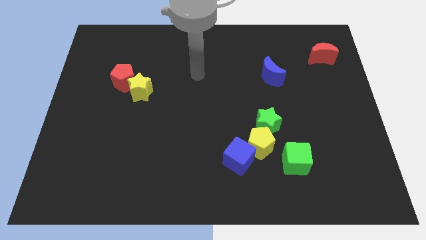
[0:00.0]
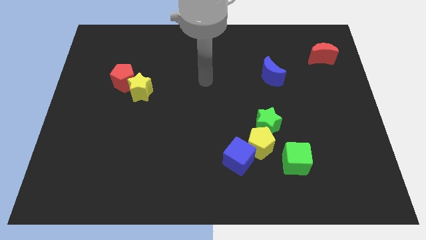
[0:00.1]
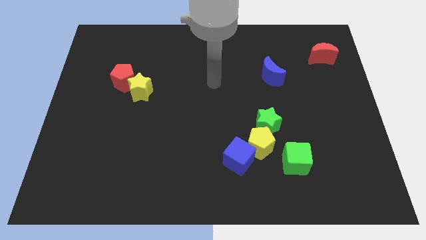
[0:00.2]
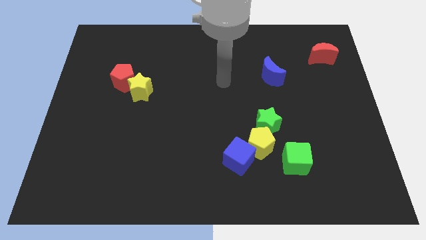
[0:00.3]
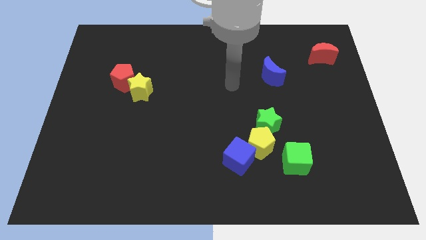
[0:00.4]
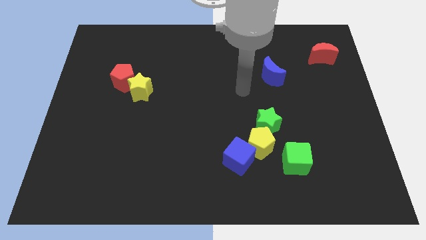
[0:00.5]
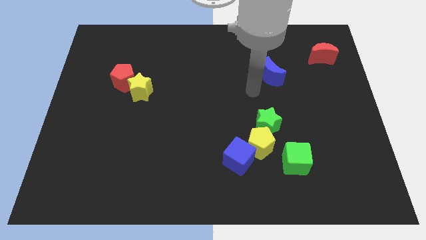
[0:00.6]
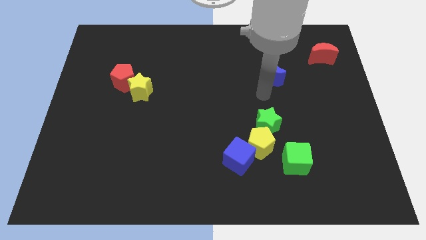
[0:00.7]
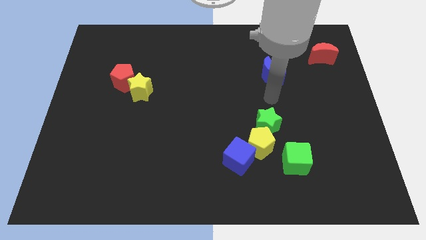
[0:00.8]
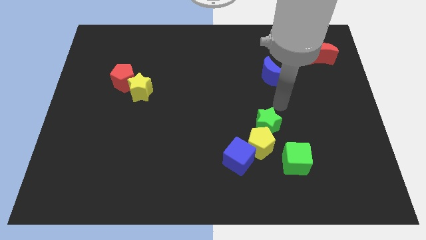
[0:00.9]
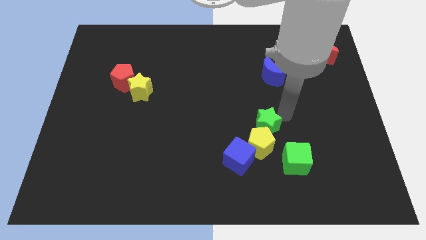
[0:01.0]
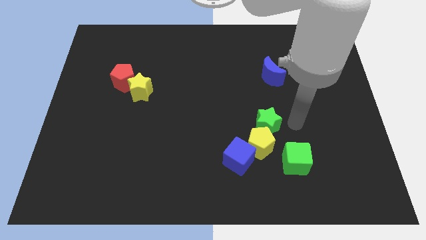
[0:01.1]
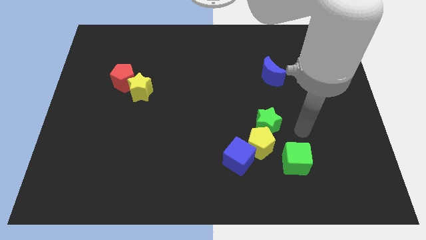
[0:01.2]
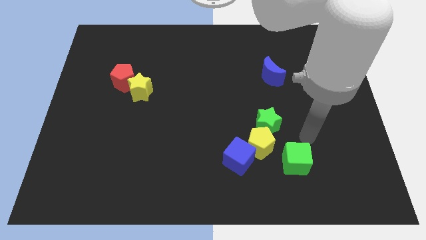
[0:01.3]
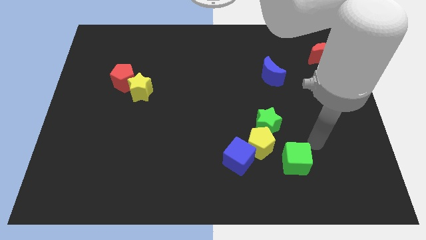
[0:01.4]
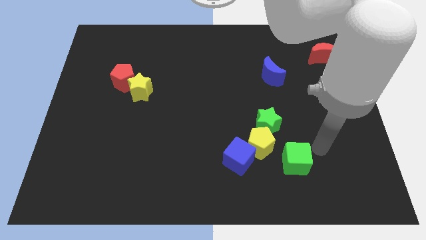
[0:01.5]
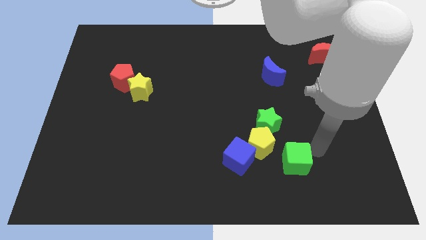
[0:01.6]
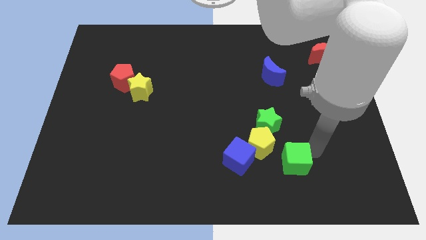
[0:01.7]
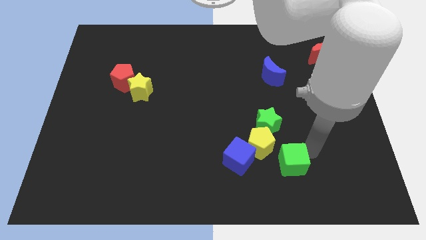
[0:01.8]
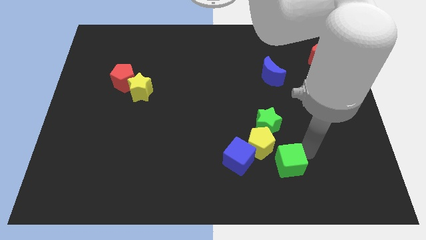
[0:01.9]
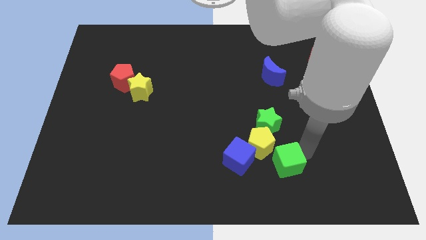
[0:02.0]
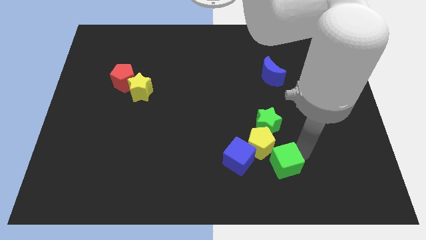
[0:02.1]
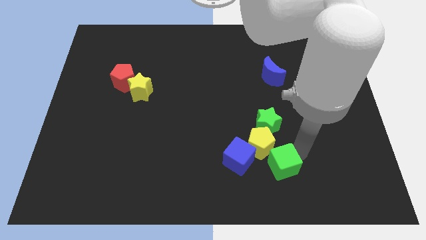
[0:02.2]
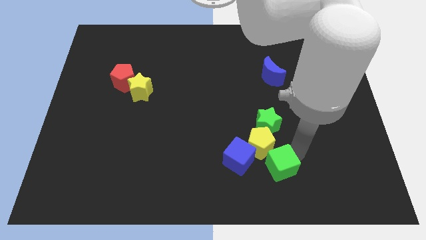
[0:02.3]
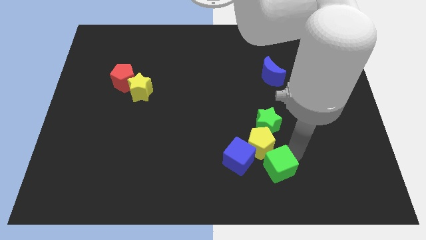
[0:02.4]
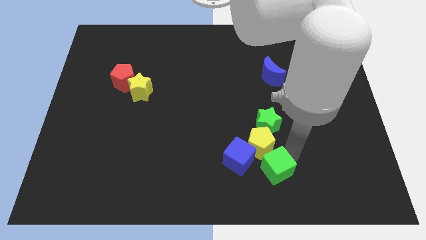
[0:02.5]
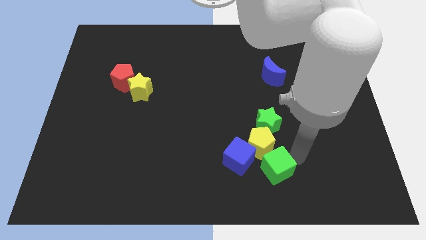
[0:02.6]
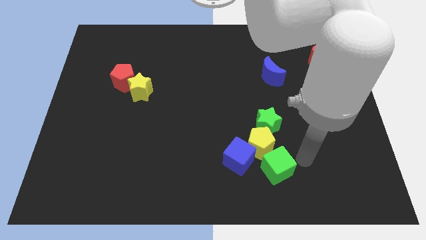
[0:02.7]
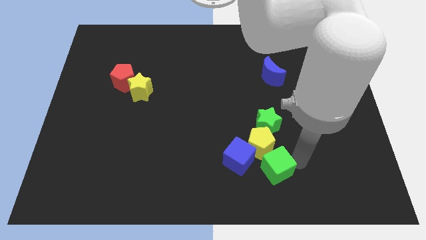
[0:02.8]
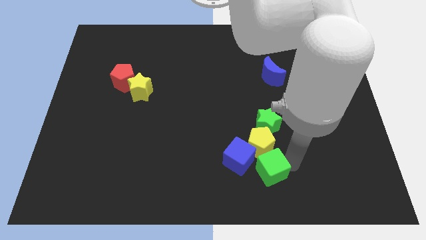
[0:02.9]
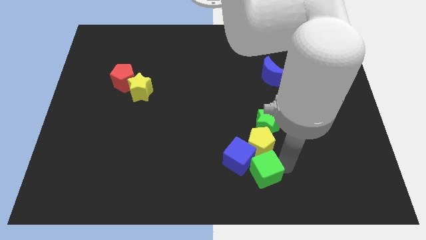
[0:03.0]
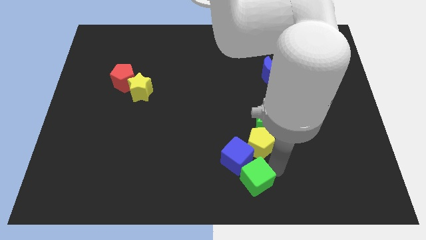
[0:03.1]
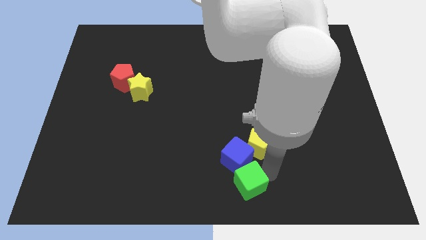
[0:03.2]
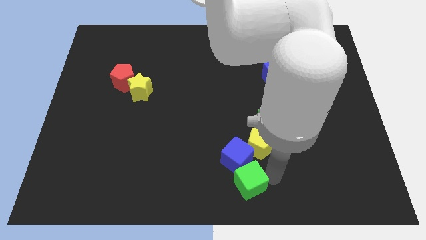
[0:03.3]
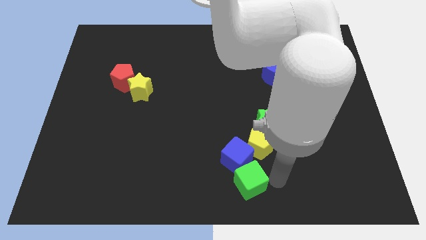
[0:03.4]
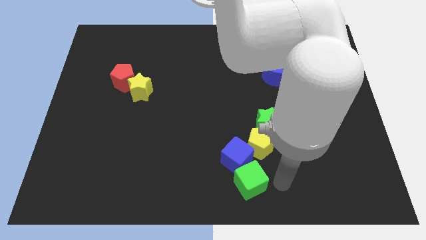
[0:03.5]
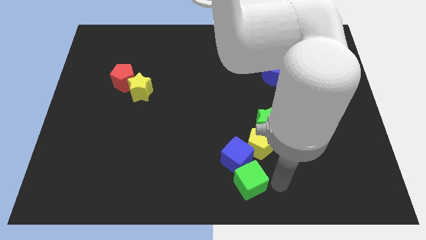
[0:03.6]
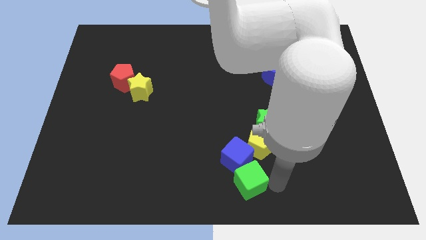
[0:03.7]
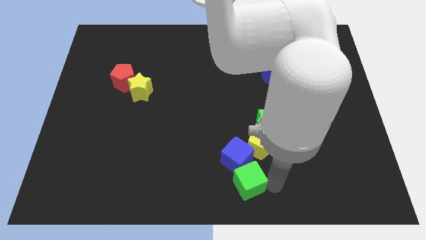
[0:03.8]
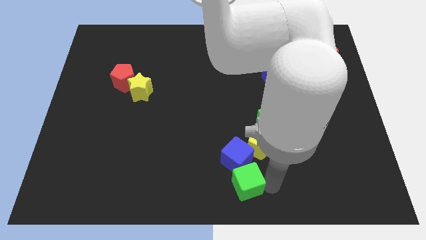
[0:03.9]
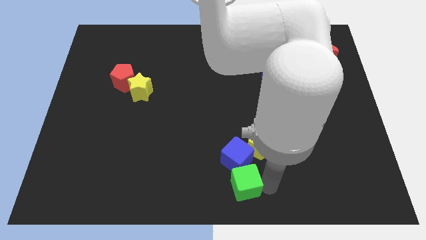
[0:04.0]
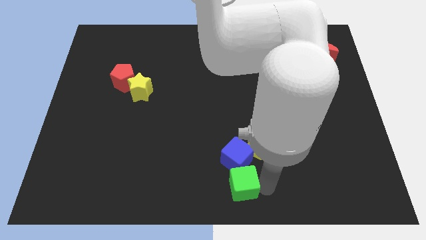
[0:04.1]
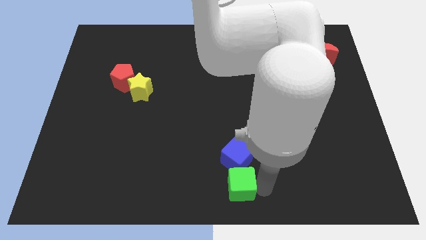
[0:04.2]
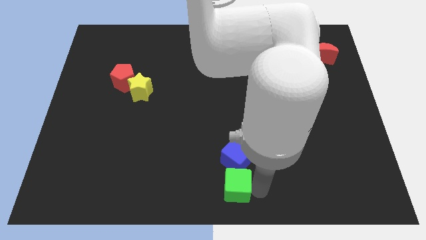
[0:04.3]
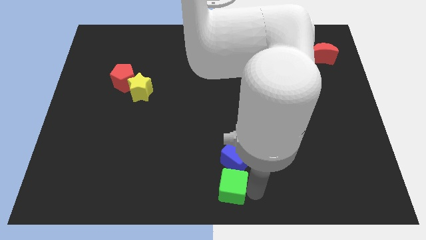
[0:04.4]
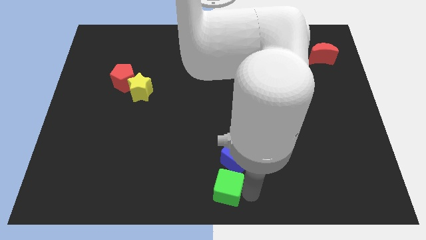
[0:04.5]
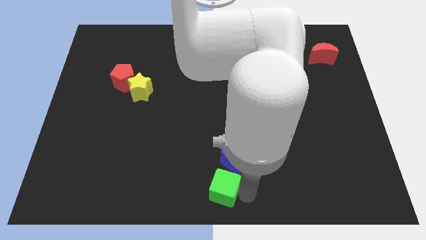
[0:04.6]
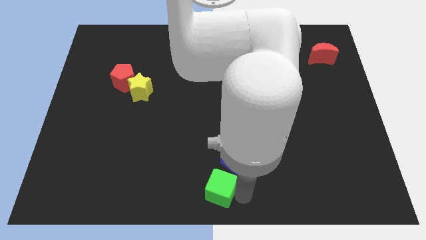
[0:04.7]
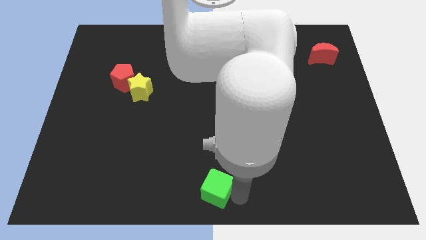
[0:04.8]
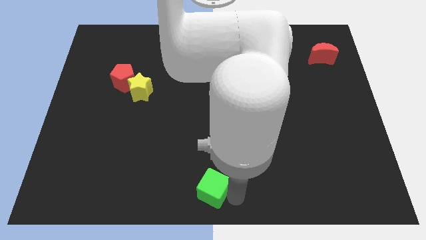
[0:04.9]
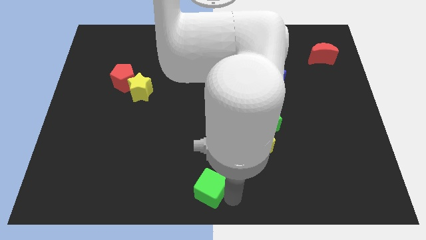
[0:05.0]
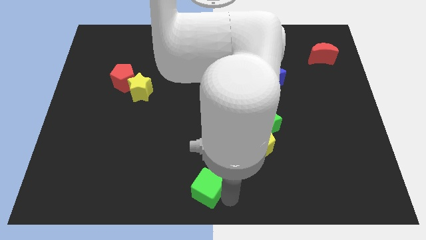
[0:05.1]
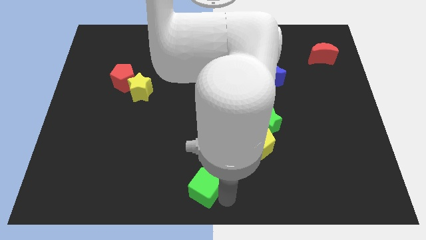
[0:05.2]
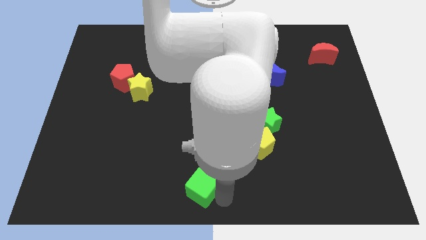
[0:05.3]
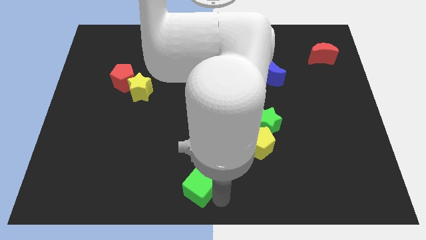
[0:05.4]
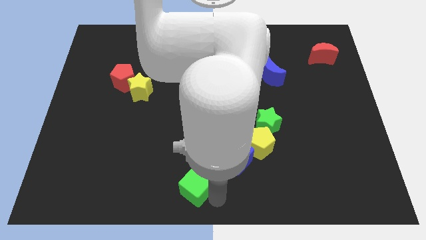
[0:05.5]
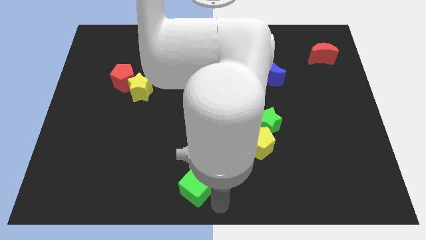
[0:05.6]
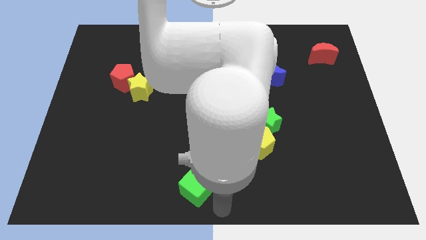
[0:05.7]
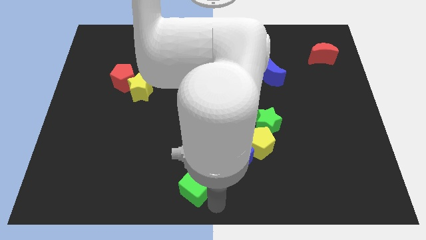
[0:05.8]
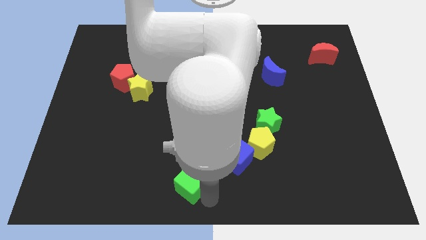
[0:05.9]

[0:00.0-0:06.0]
move the green cube left

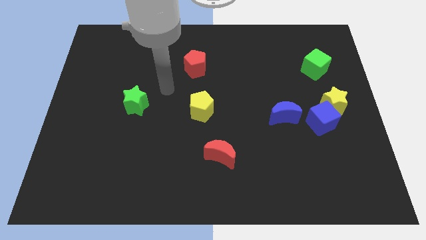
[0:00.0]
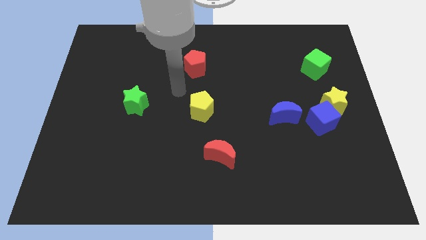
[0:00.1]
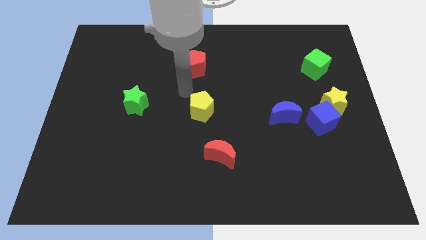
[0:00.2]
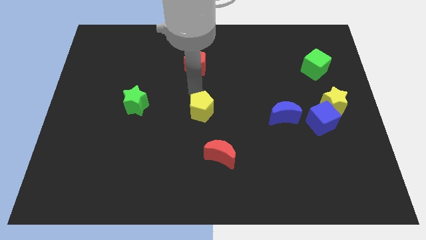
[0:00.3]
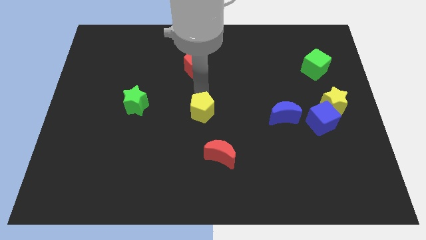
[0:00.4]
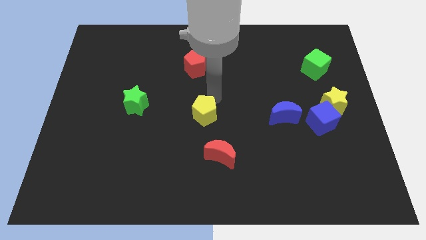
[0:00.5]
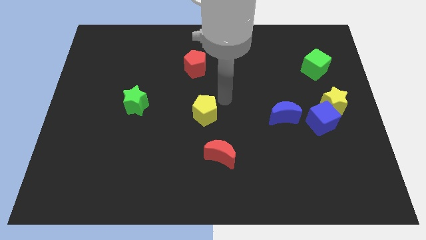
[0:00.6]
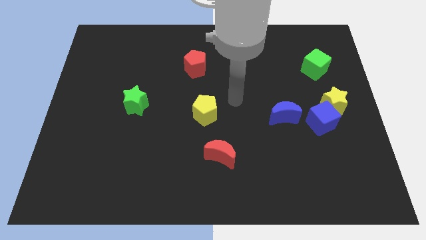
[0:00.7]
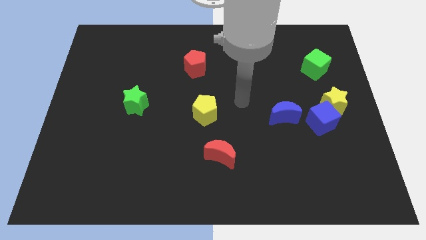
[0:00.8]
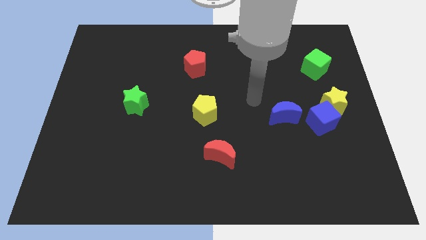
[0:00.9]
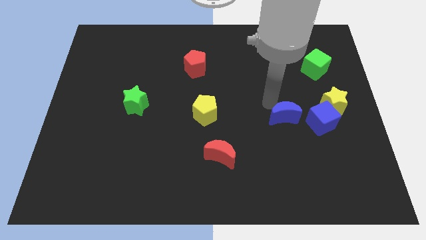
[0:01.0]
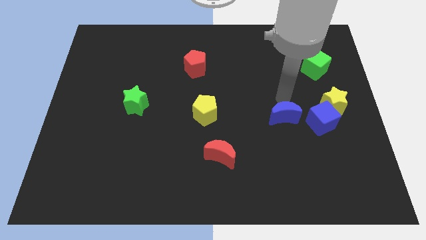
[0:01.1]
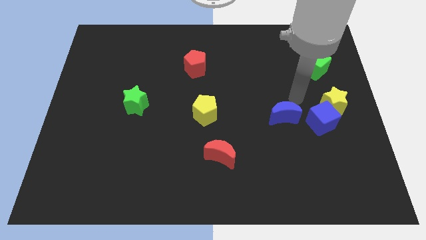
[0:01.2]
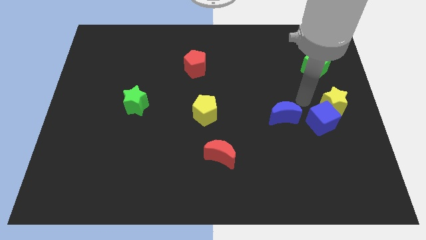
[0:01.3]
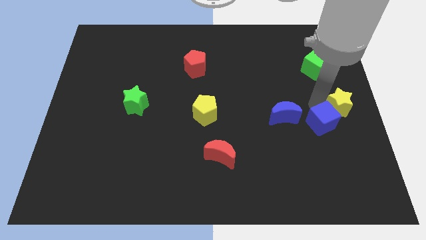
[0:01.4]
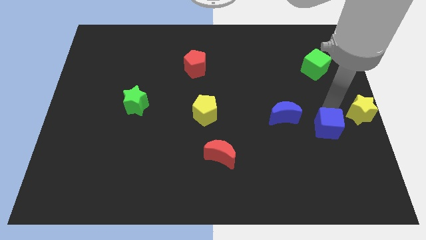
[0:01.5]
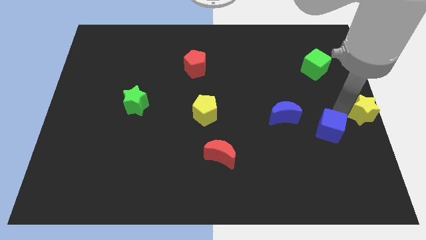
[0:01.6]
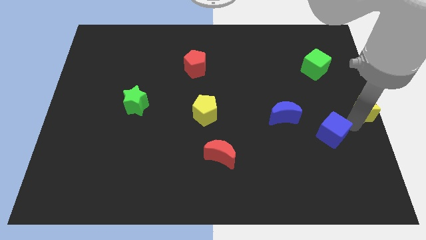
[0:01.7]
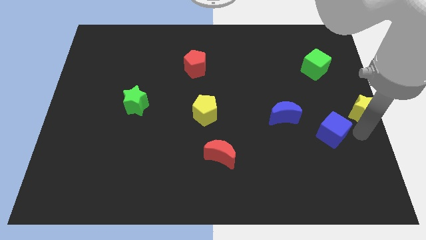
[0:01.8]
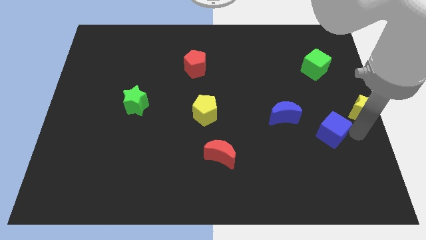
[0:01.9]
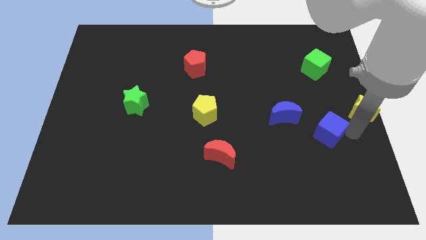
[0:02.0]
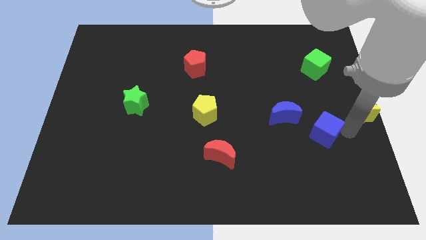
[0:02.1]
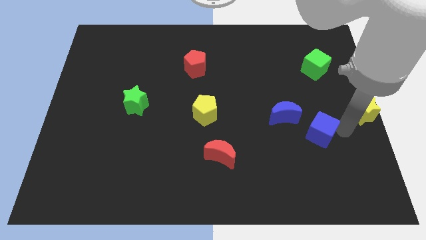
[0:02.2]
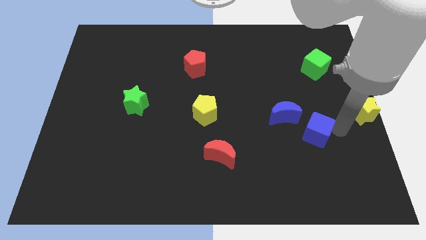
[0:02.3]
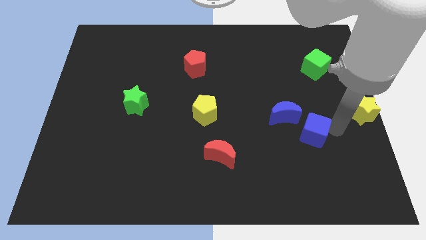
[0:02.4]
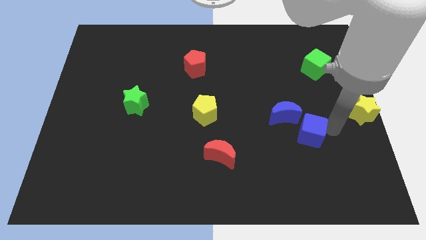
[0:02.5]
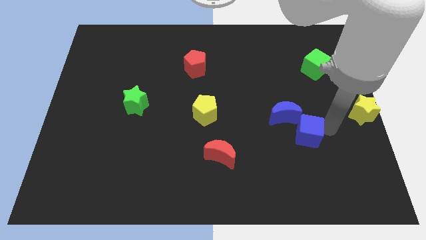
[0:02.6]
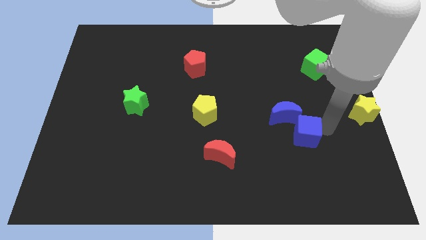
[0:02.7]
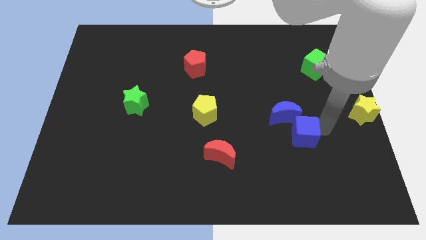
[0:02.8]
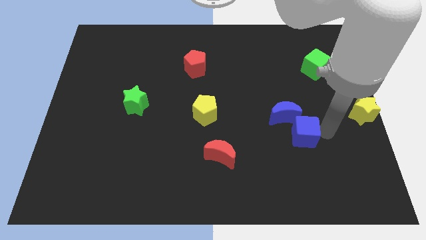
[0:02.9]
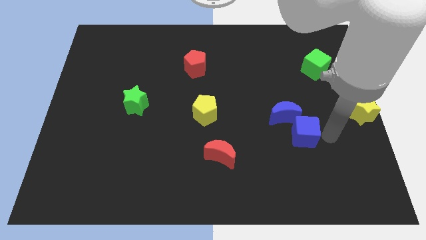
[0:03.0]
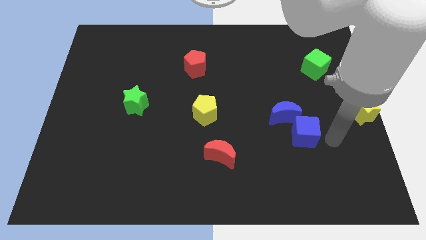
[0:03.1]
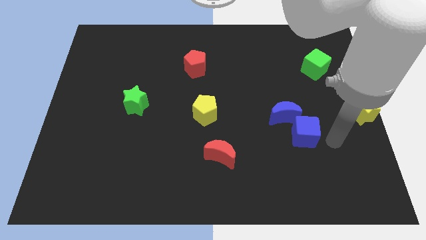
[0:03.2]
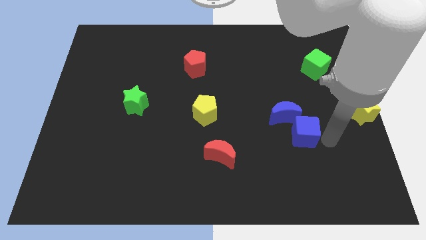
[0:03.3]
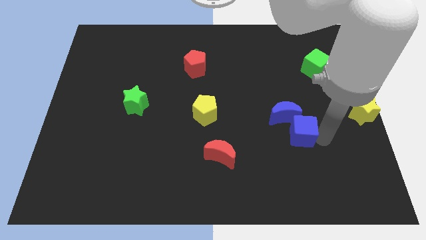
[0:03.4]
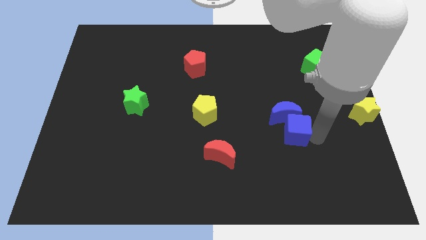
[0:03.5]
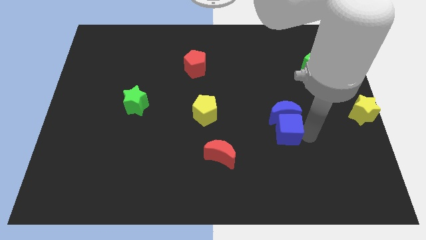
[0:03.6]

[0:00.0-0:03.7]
slide the blue cube to the left slightly
